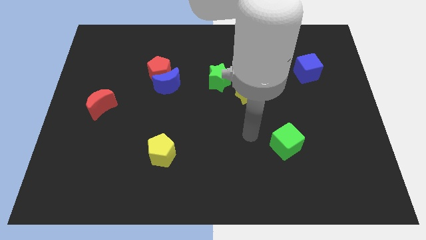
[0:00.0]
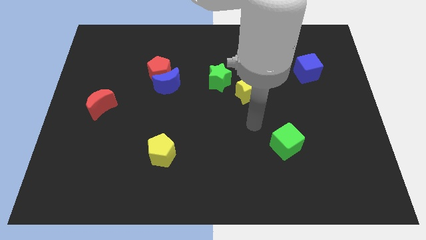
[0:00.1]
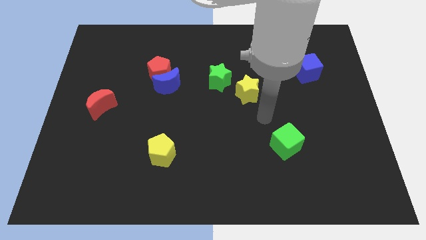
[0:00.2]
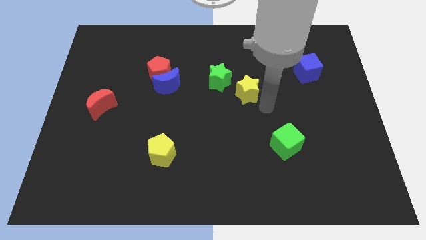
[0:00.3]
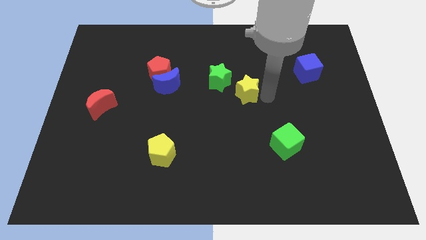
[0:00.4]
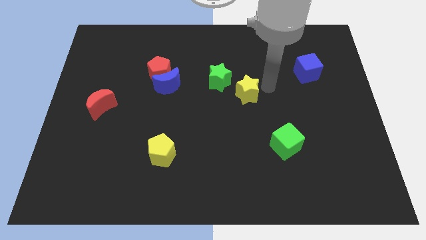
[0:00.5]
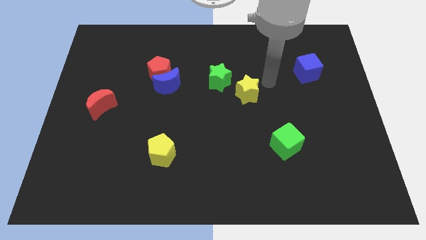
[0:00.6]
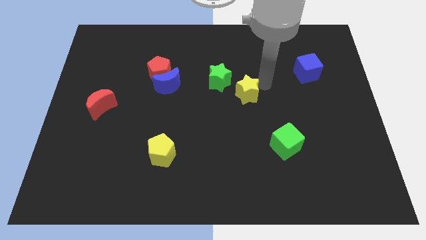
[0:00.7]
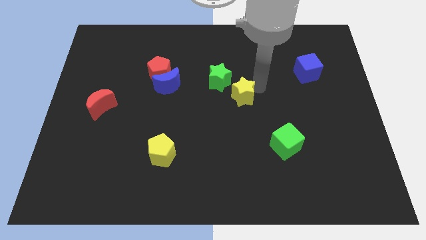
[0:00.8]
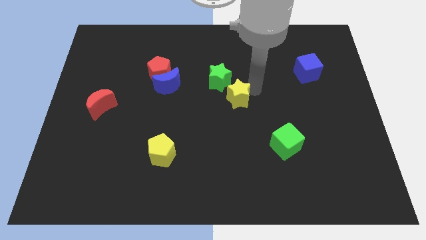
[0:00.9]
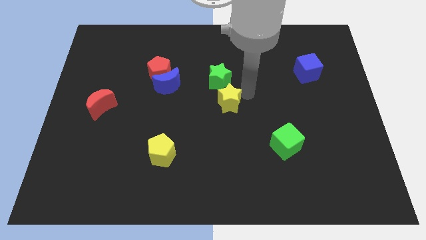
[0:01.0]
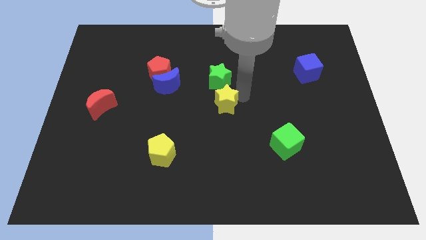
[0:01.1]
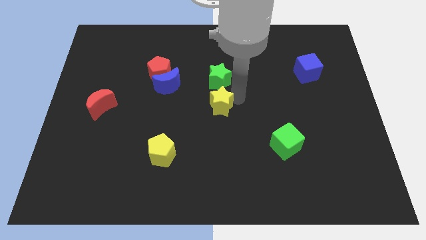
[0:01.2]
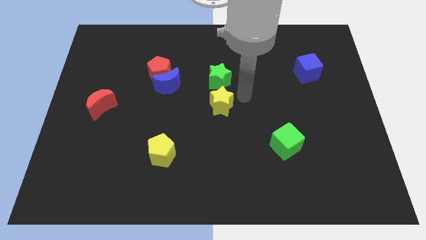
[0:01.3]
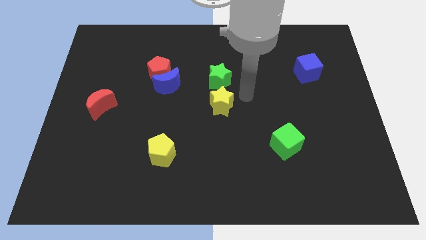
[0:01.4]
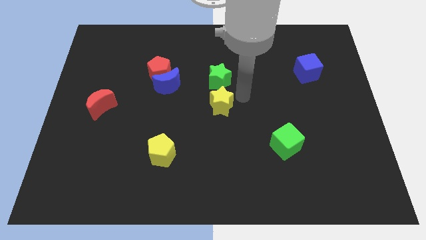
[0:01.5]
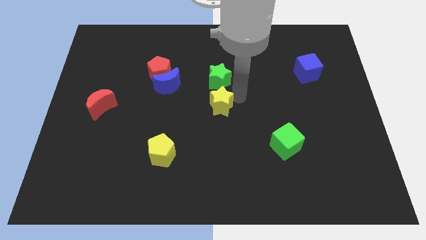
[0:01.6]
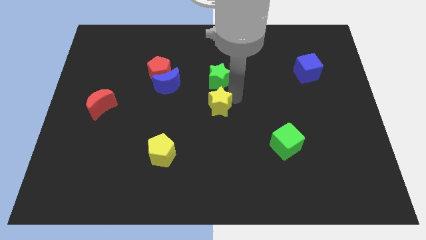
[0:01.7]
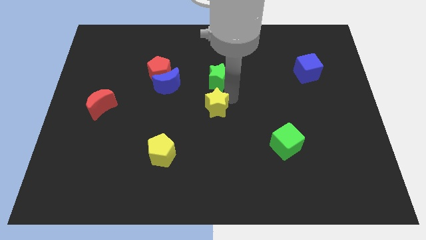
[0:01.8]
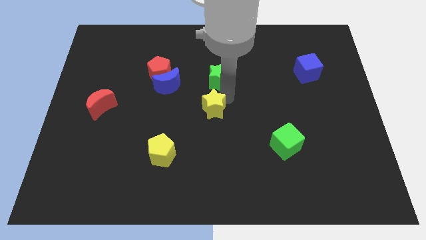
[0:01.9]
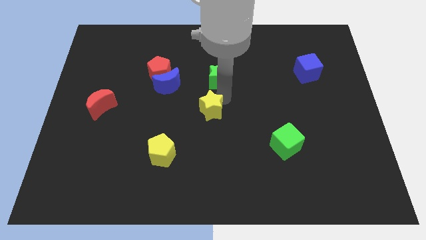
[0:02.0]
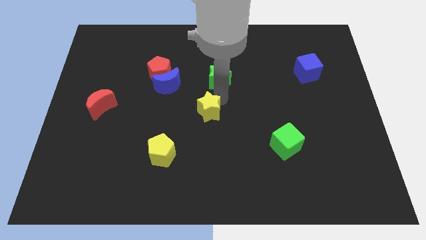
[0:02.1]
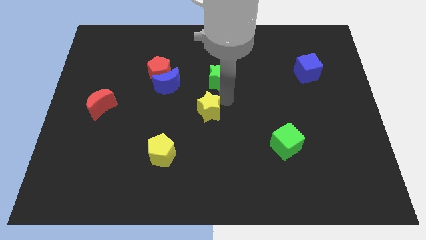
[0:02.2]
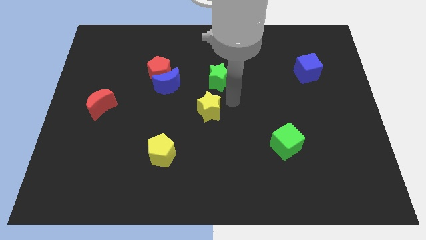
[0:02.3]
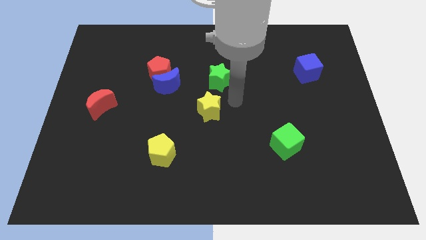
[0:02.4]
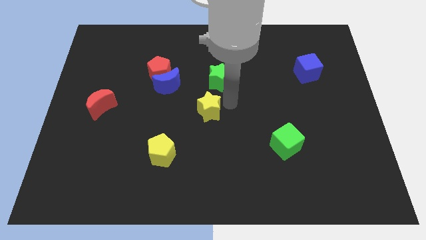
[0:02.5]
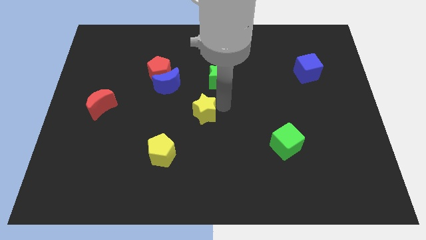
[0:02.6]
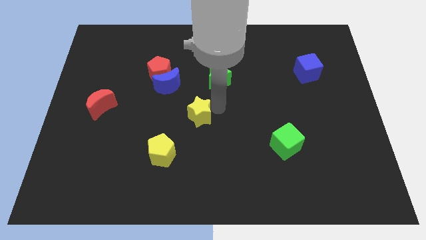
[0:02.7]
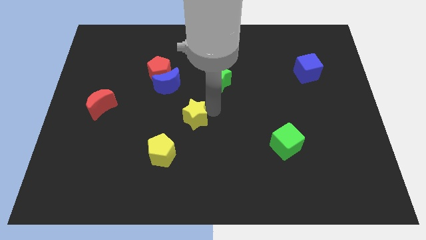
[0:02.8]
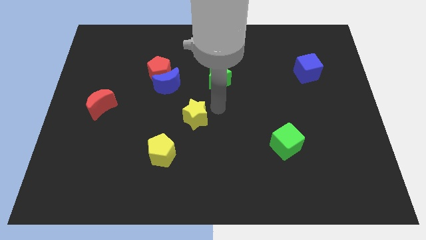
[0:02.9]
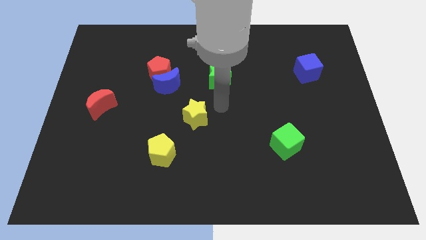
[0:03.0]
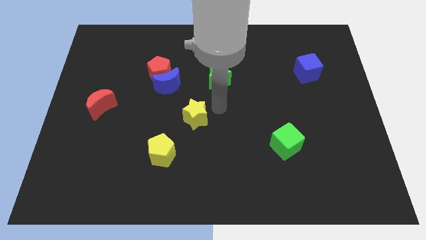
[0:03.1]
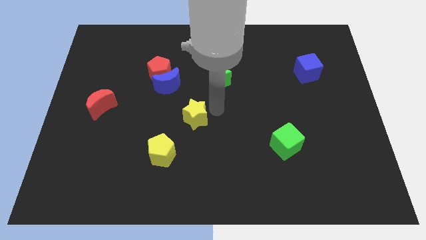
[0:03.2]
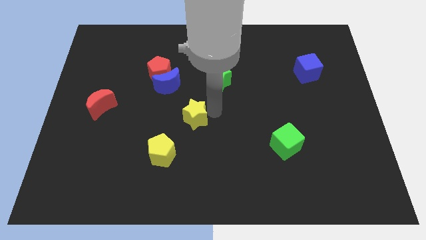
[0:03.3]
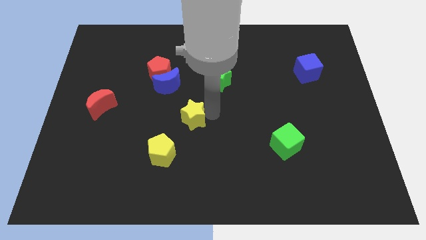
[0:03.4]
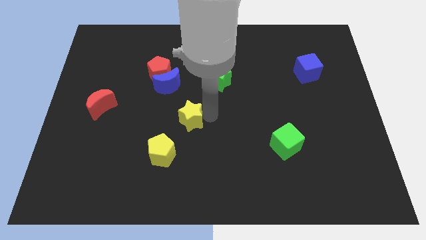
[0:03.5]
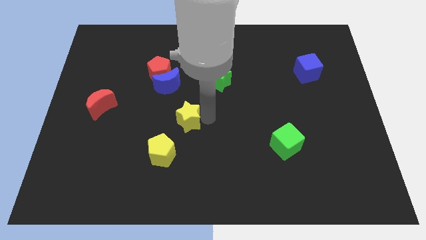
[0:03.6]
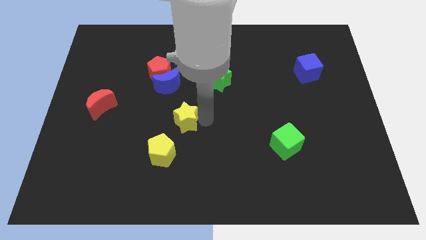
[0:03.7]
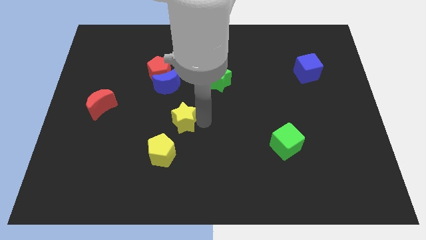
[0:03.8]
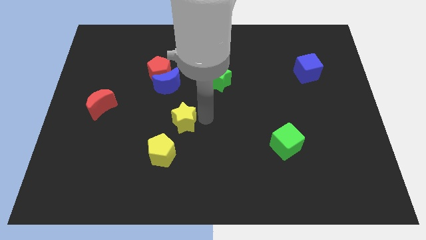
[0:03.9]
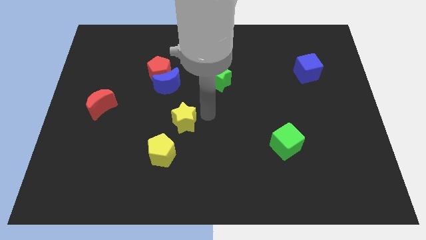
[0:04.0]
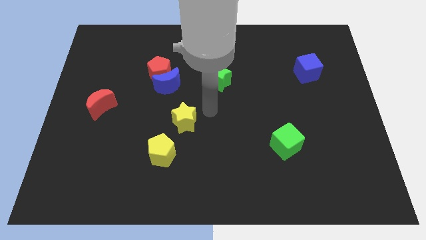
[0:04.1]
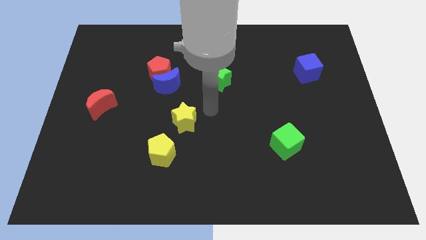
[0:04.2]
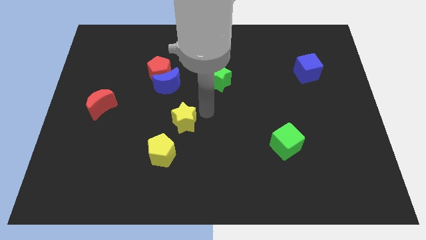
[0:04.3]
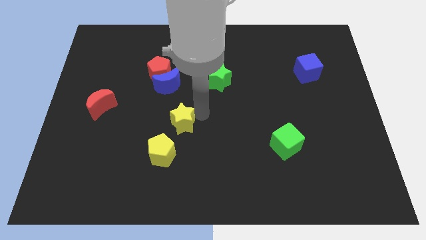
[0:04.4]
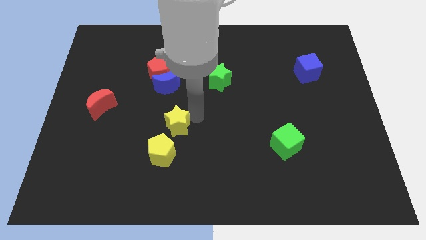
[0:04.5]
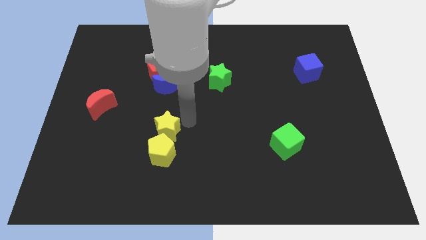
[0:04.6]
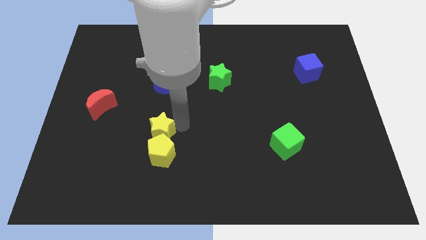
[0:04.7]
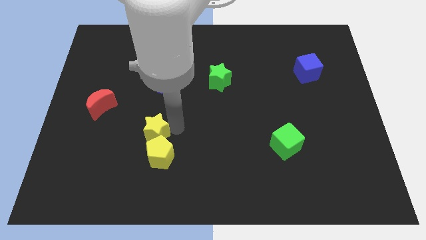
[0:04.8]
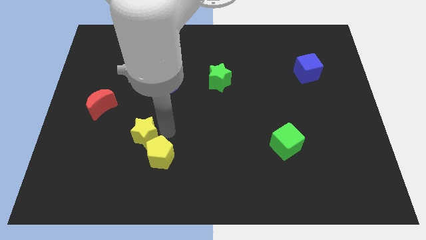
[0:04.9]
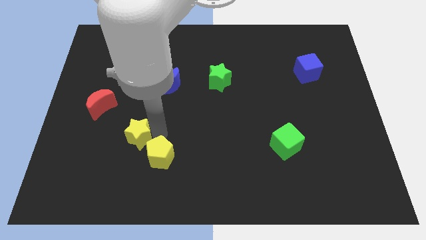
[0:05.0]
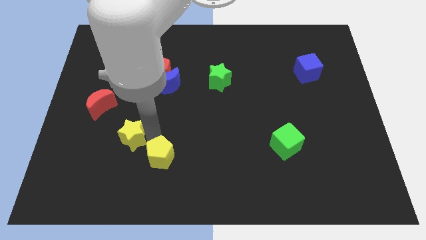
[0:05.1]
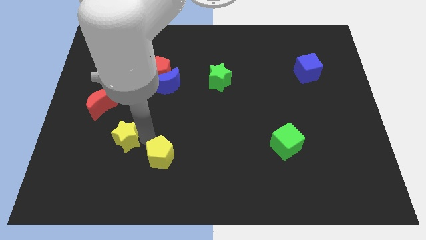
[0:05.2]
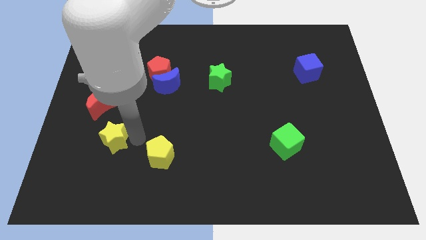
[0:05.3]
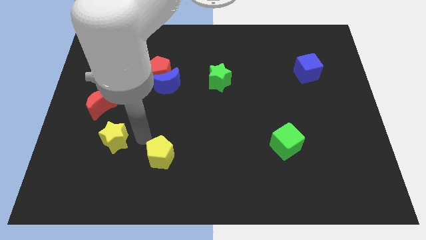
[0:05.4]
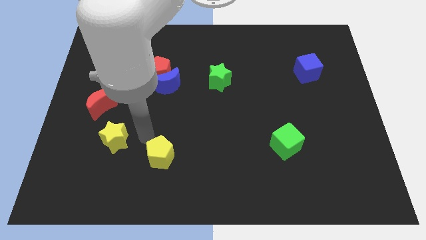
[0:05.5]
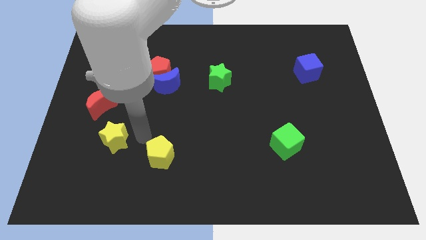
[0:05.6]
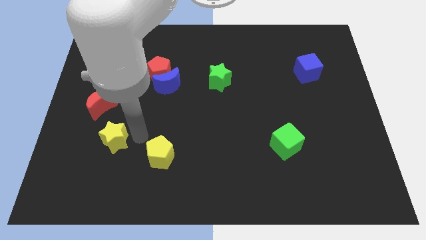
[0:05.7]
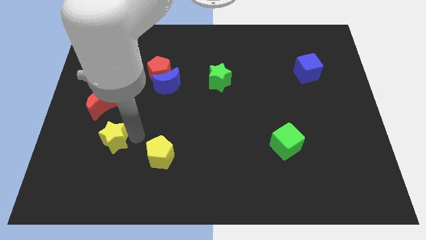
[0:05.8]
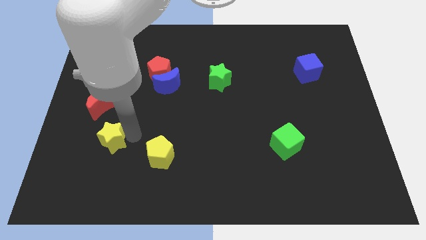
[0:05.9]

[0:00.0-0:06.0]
put the yellow star to the bottom of the red moon

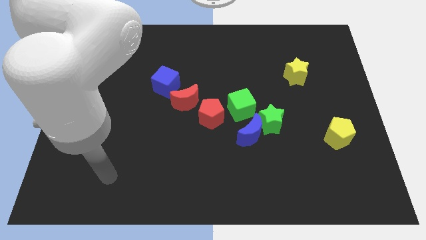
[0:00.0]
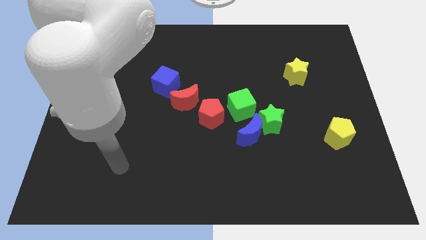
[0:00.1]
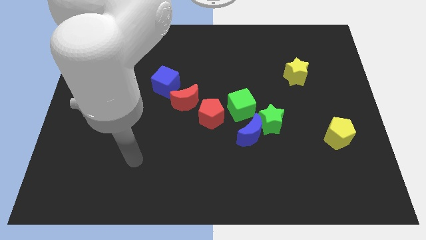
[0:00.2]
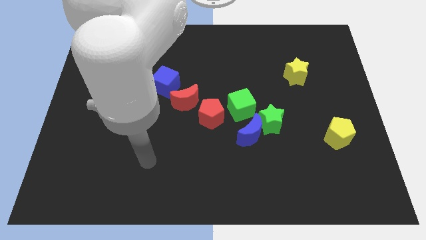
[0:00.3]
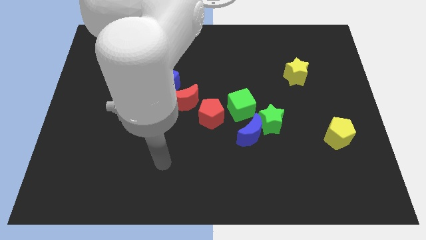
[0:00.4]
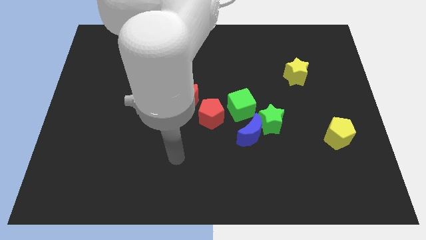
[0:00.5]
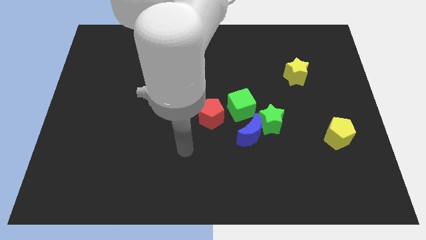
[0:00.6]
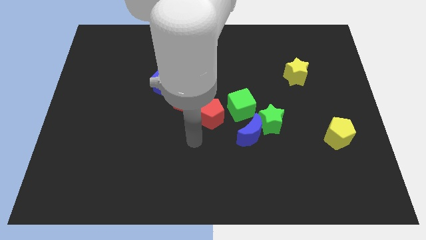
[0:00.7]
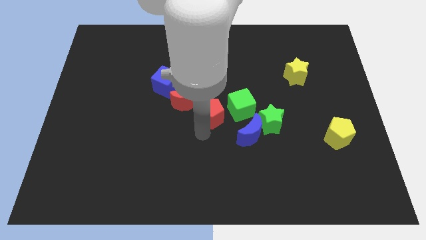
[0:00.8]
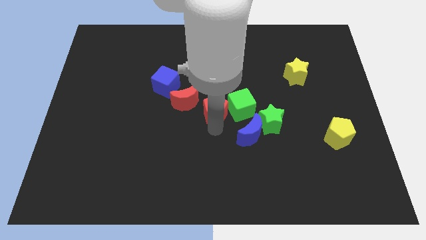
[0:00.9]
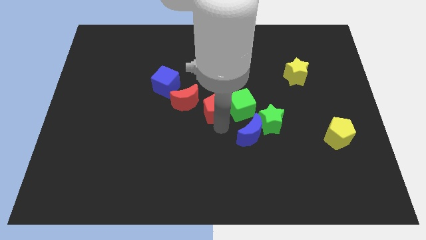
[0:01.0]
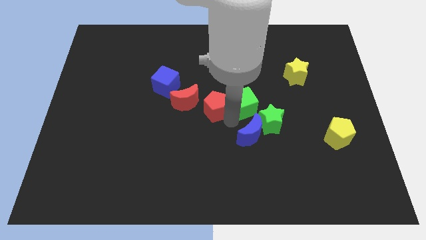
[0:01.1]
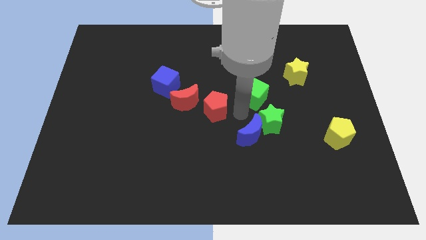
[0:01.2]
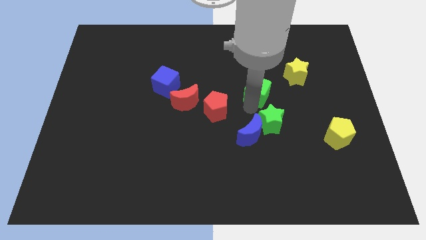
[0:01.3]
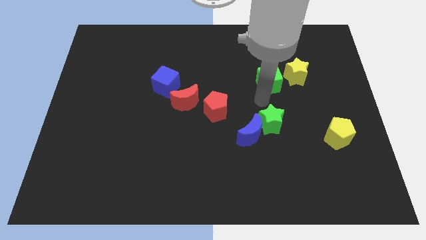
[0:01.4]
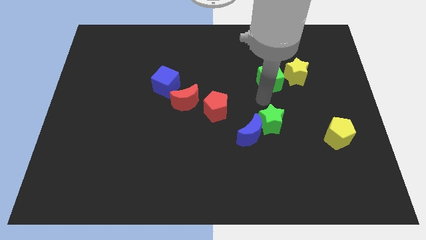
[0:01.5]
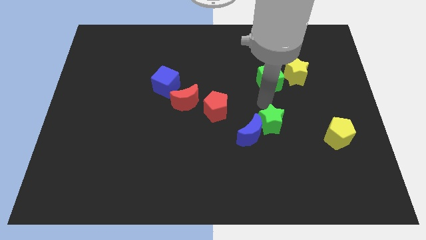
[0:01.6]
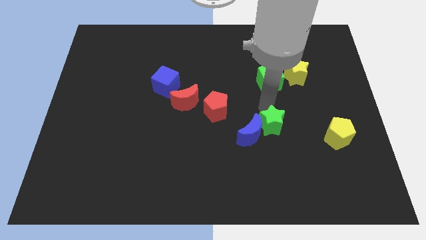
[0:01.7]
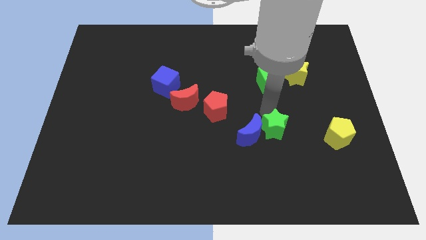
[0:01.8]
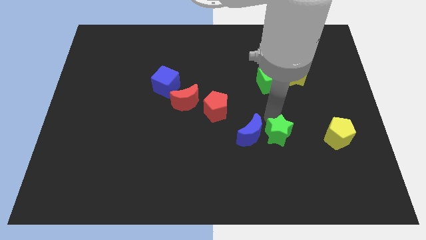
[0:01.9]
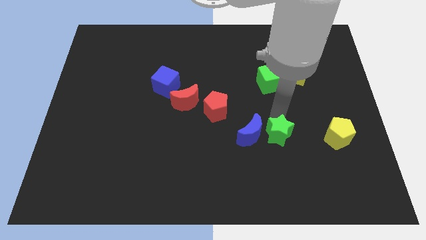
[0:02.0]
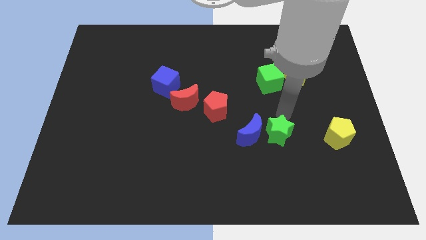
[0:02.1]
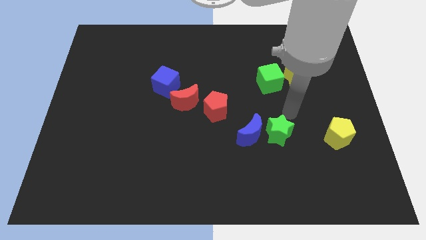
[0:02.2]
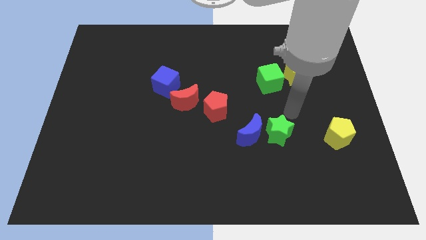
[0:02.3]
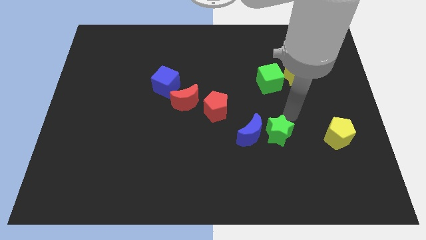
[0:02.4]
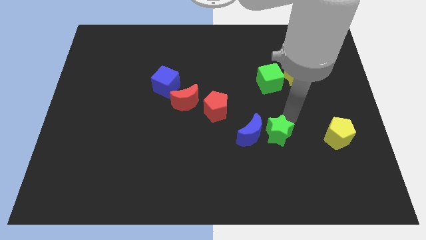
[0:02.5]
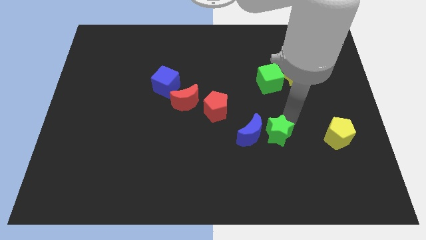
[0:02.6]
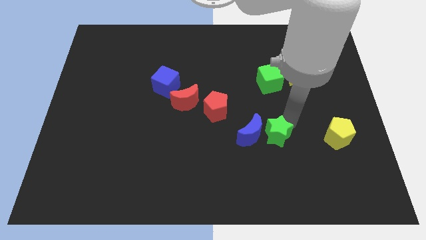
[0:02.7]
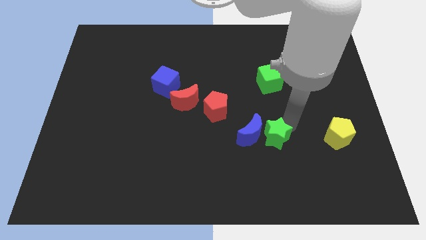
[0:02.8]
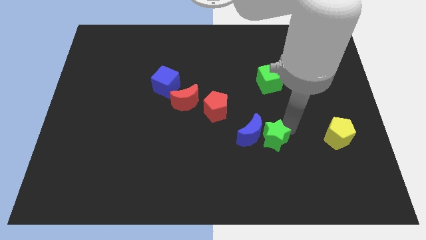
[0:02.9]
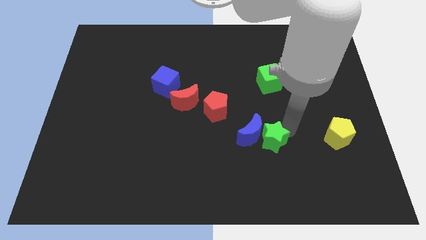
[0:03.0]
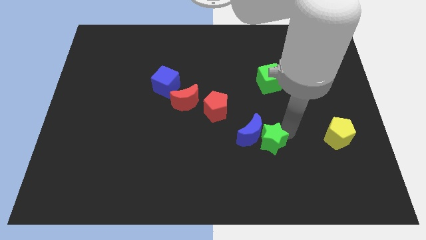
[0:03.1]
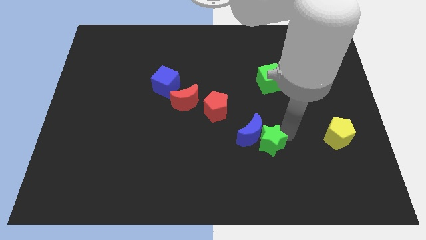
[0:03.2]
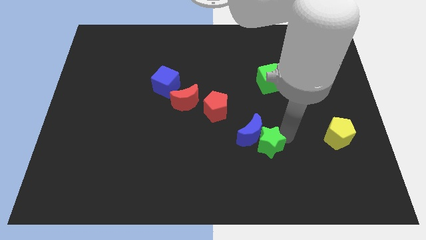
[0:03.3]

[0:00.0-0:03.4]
put the green star to the bottom side of the blue moon
